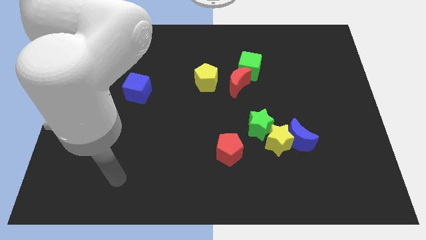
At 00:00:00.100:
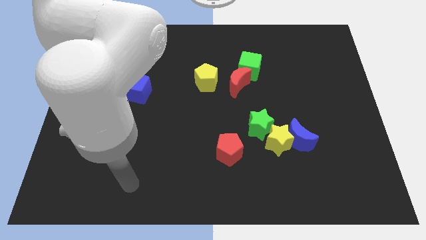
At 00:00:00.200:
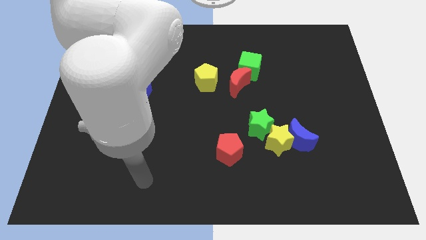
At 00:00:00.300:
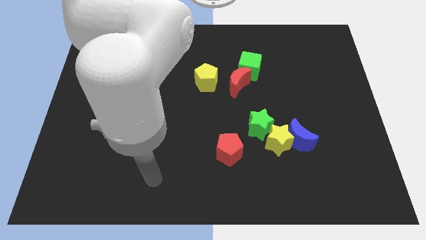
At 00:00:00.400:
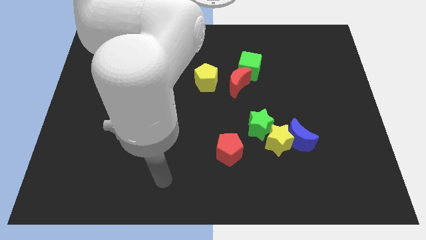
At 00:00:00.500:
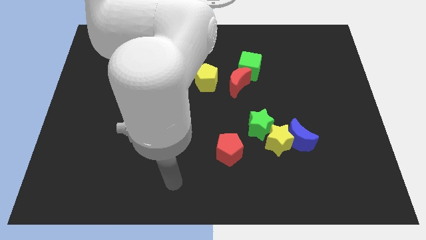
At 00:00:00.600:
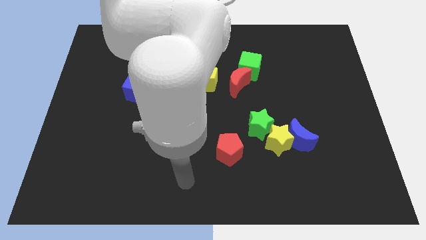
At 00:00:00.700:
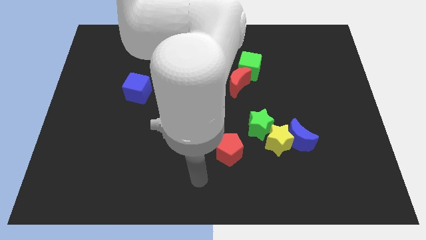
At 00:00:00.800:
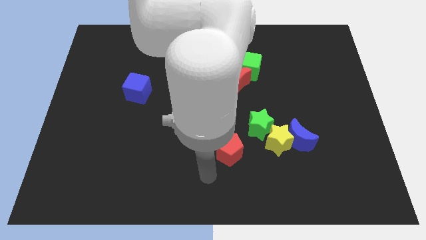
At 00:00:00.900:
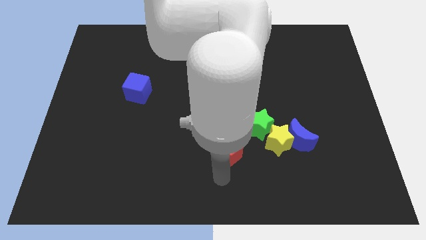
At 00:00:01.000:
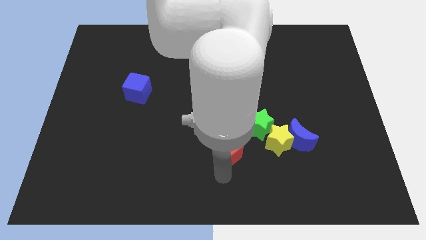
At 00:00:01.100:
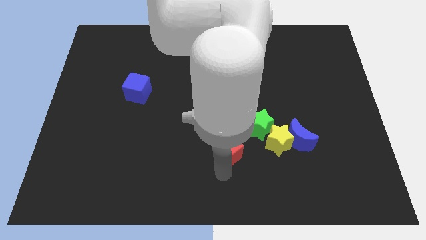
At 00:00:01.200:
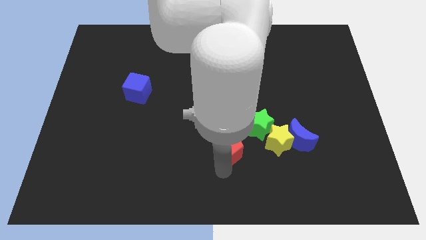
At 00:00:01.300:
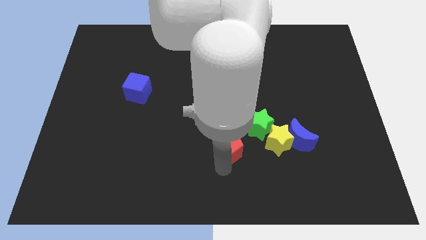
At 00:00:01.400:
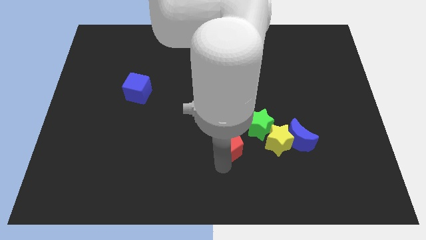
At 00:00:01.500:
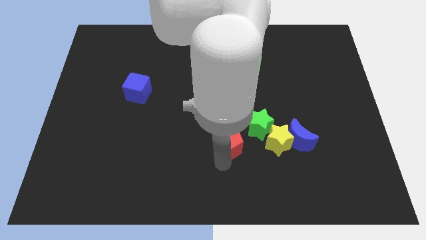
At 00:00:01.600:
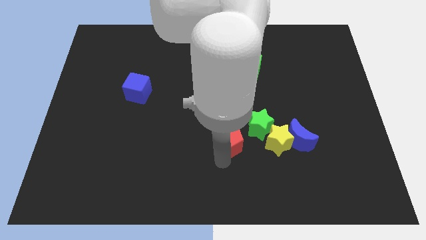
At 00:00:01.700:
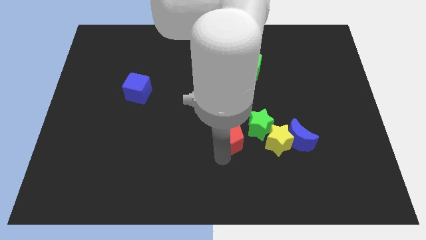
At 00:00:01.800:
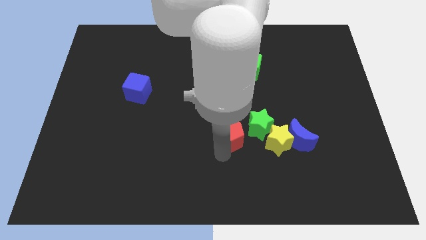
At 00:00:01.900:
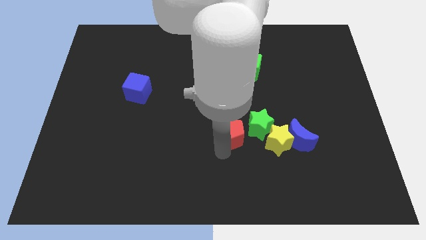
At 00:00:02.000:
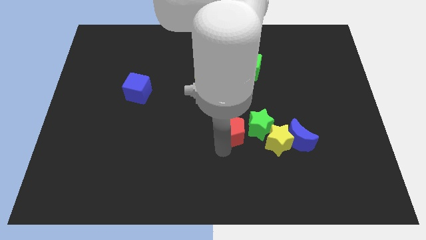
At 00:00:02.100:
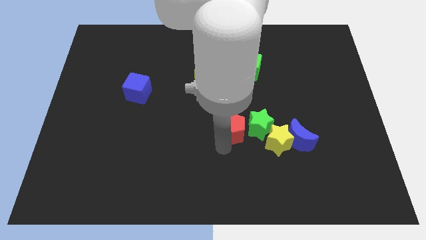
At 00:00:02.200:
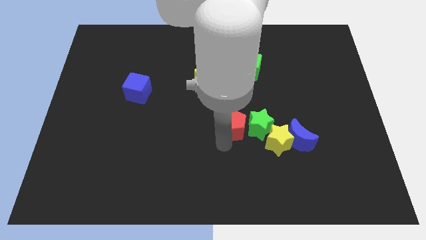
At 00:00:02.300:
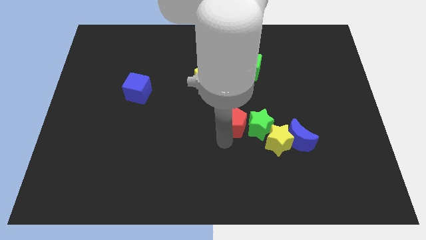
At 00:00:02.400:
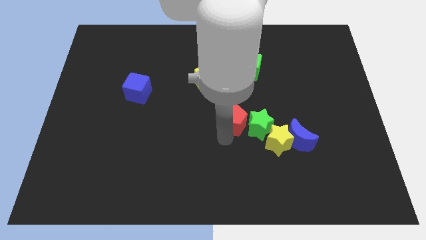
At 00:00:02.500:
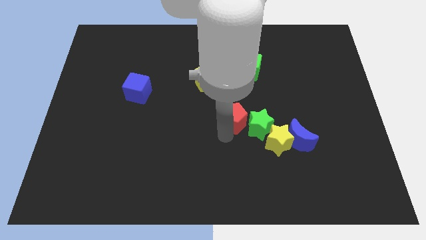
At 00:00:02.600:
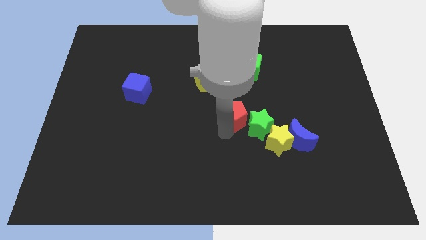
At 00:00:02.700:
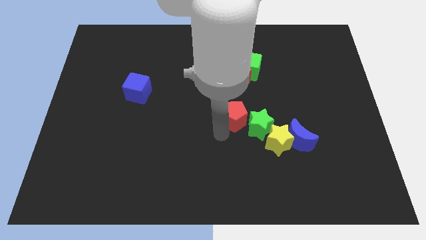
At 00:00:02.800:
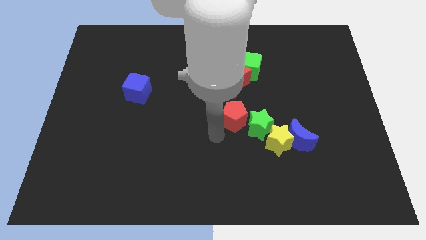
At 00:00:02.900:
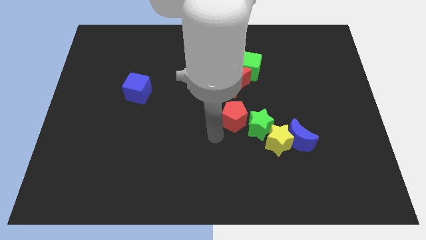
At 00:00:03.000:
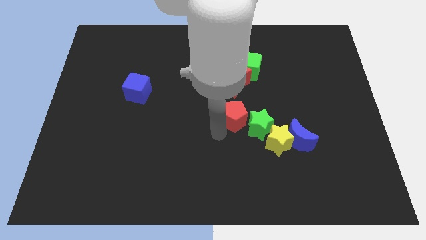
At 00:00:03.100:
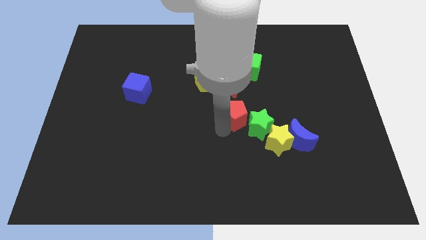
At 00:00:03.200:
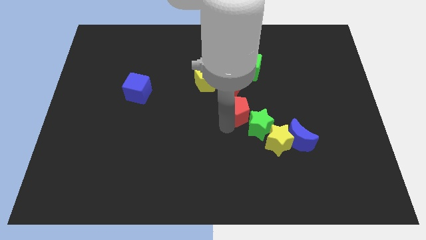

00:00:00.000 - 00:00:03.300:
slightly slide the red pentagon diagonally up and right

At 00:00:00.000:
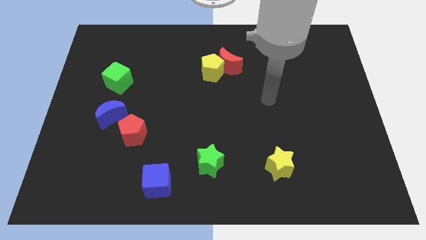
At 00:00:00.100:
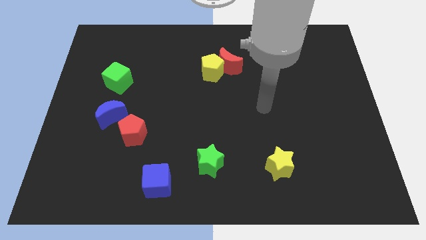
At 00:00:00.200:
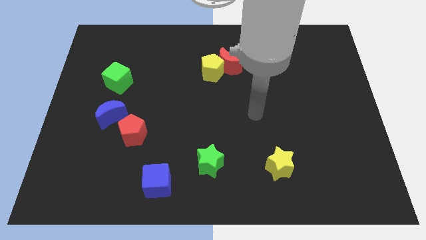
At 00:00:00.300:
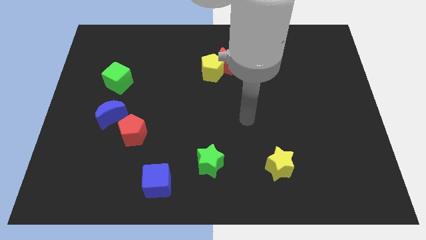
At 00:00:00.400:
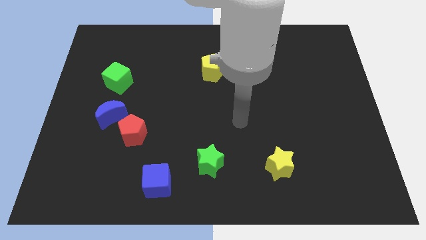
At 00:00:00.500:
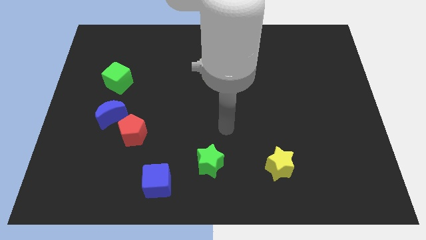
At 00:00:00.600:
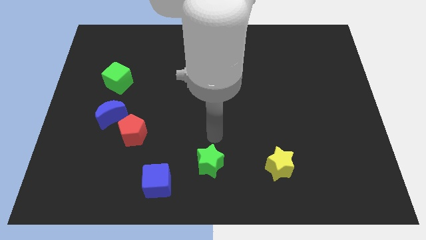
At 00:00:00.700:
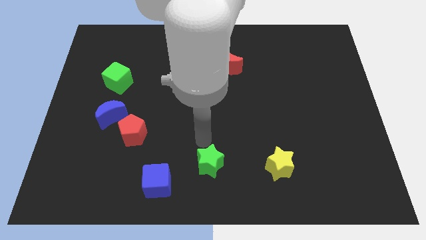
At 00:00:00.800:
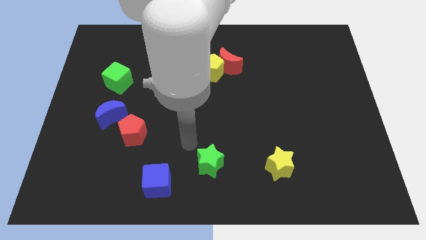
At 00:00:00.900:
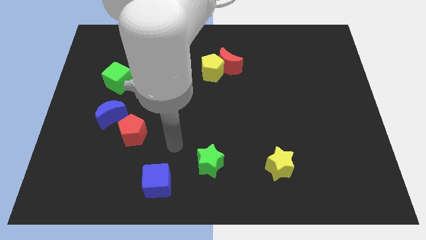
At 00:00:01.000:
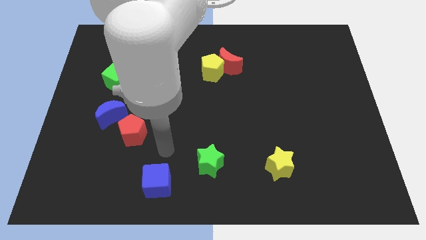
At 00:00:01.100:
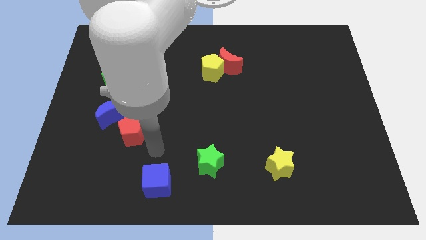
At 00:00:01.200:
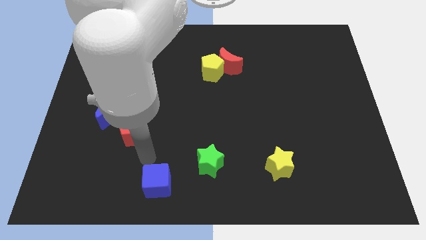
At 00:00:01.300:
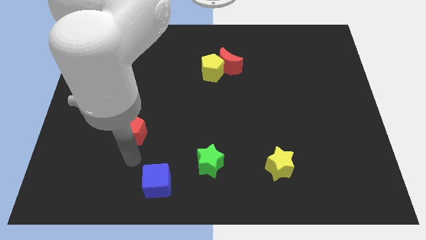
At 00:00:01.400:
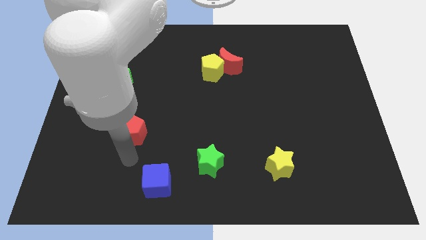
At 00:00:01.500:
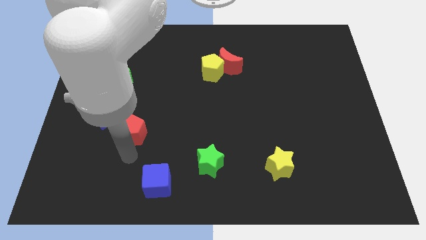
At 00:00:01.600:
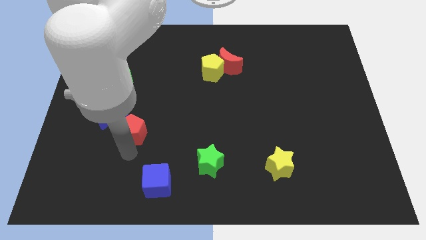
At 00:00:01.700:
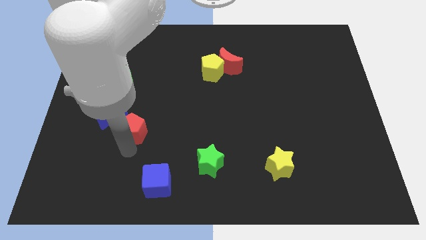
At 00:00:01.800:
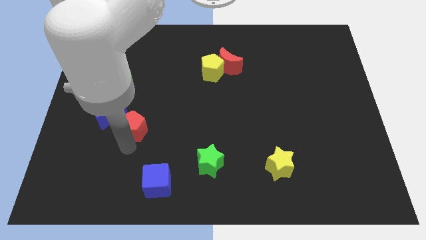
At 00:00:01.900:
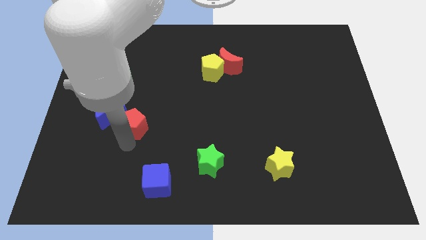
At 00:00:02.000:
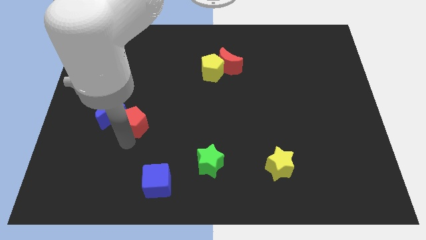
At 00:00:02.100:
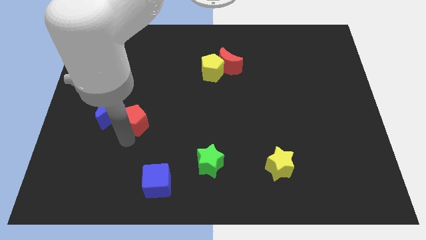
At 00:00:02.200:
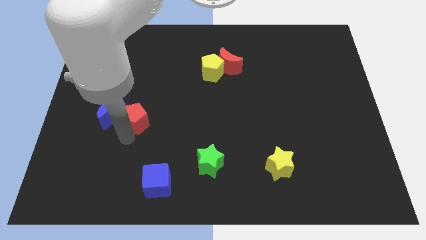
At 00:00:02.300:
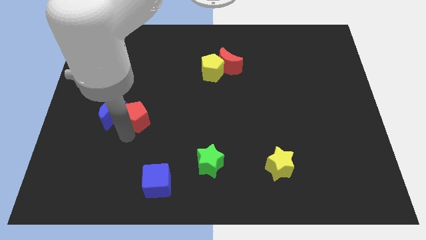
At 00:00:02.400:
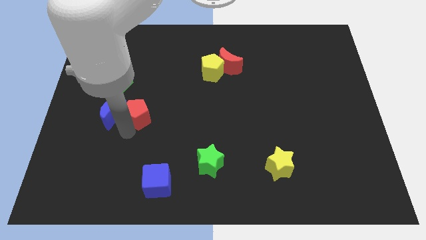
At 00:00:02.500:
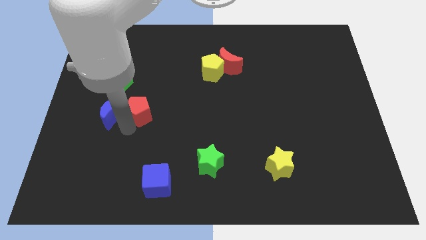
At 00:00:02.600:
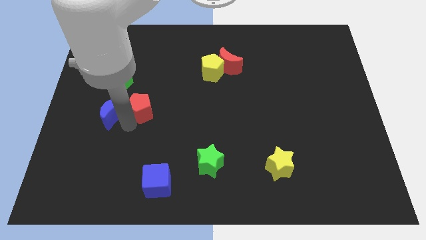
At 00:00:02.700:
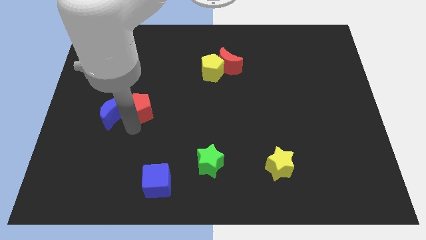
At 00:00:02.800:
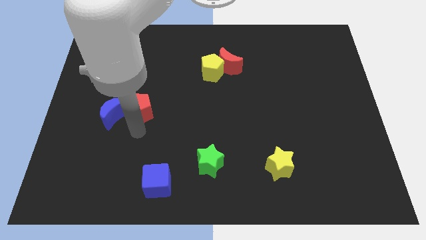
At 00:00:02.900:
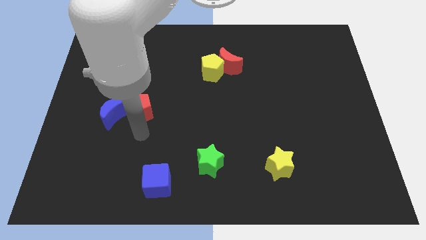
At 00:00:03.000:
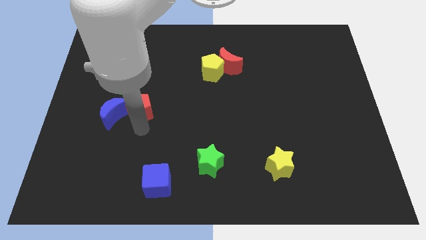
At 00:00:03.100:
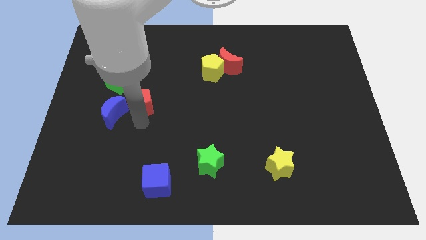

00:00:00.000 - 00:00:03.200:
move the red pentagon up slightly

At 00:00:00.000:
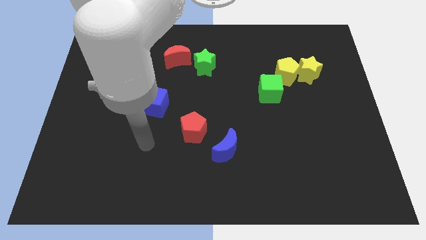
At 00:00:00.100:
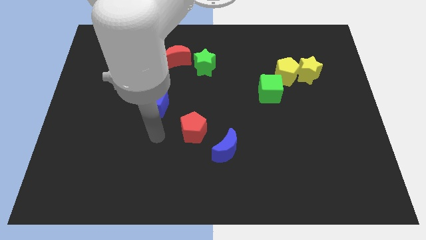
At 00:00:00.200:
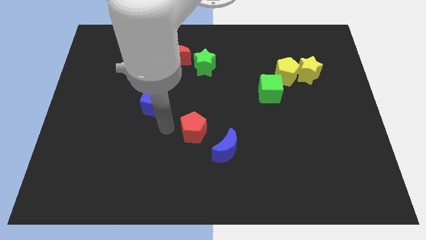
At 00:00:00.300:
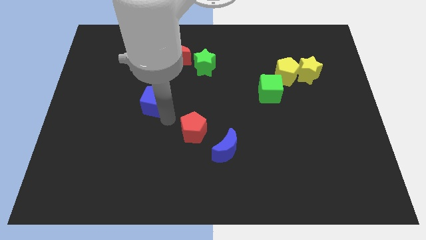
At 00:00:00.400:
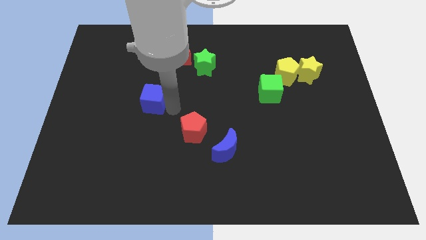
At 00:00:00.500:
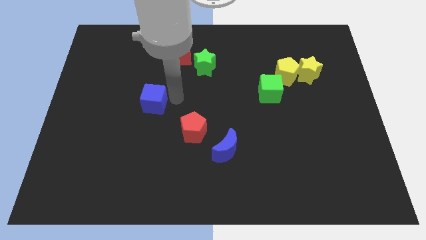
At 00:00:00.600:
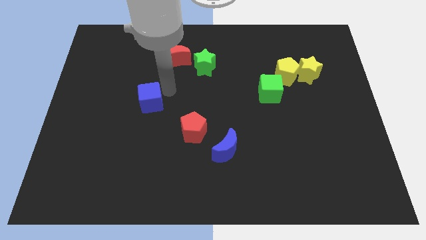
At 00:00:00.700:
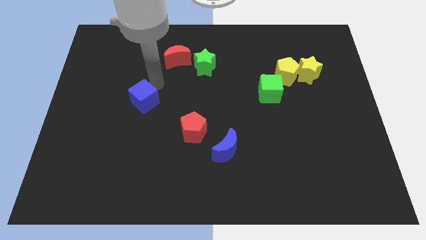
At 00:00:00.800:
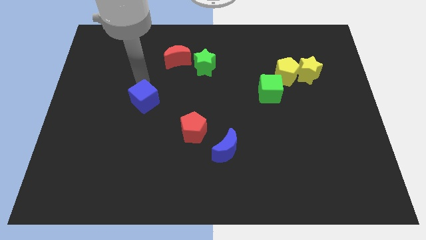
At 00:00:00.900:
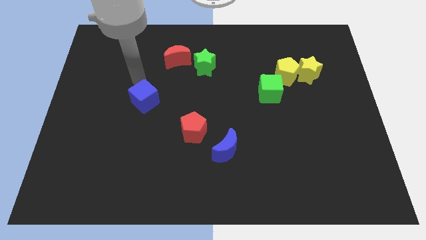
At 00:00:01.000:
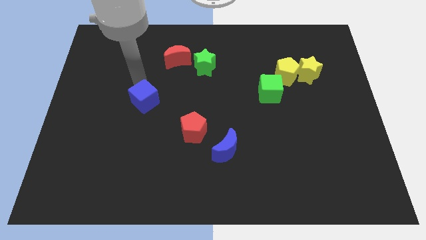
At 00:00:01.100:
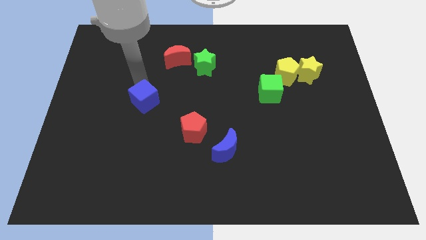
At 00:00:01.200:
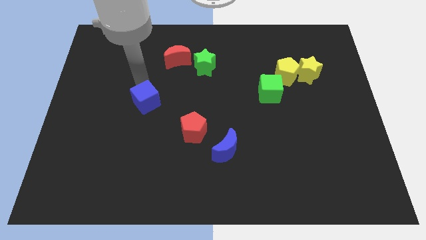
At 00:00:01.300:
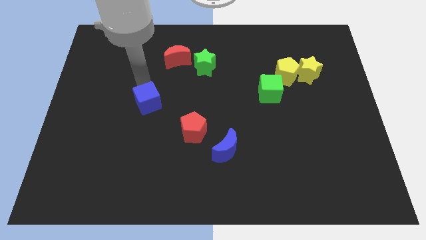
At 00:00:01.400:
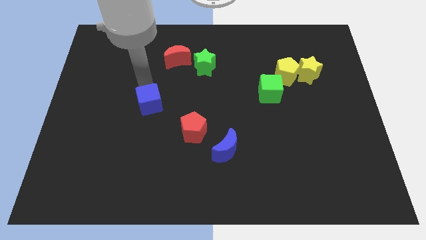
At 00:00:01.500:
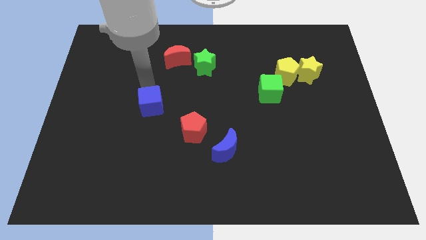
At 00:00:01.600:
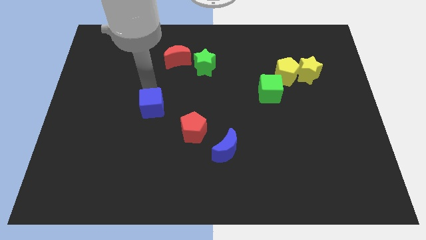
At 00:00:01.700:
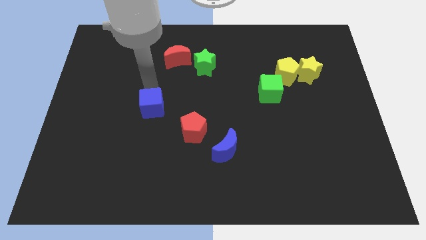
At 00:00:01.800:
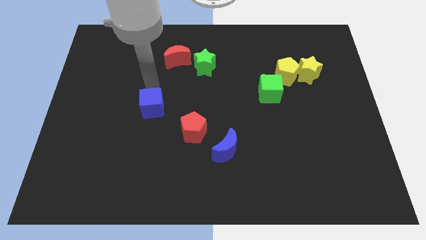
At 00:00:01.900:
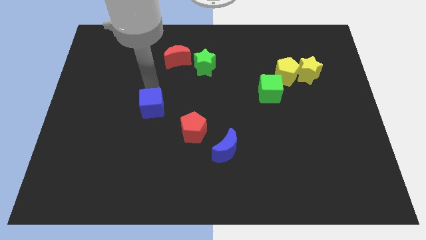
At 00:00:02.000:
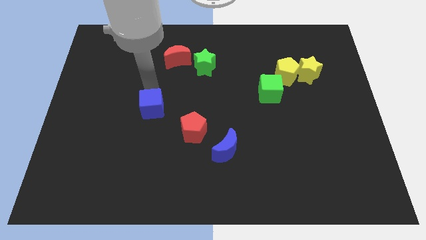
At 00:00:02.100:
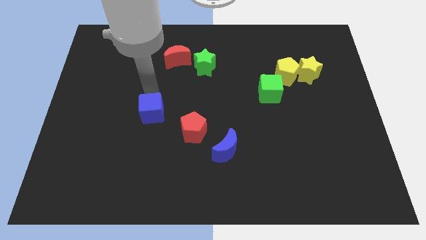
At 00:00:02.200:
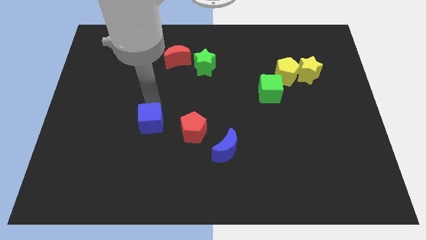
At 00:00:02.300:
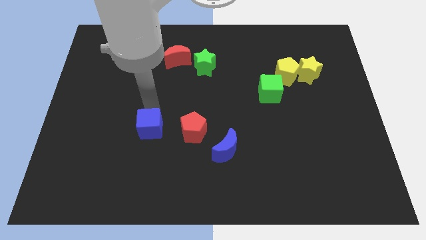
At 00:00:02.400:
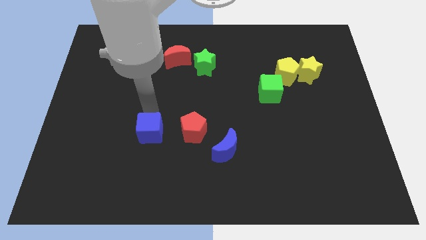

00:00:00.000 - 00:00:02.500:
slightly push the blue cube down
